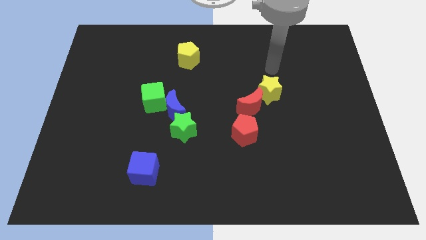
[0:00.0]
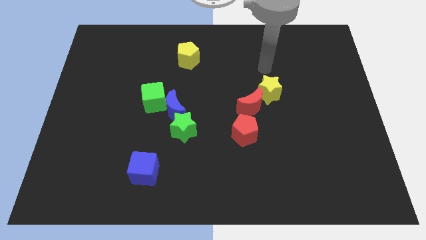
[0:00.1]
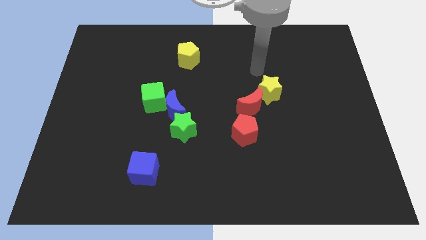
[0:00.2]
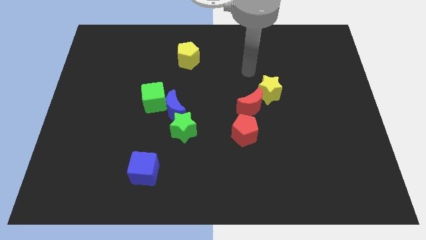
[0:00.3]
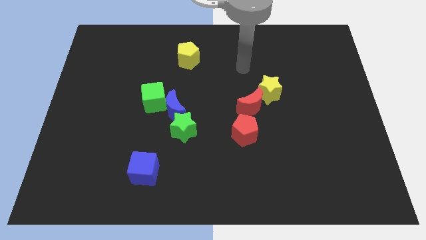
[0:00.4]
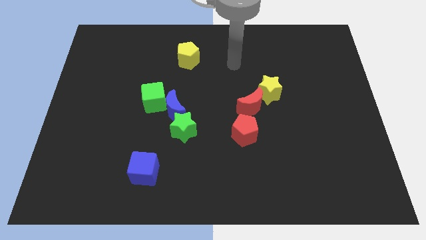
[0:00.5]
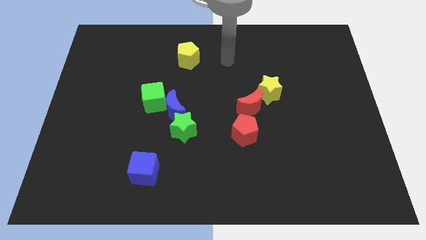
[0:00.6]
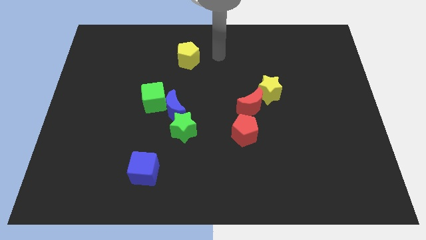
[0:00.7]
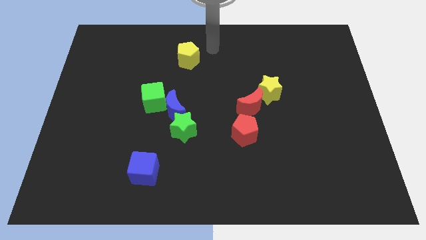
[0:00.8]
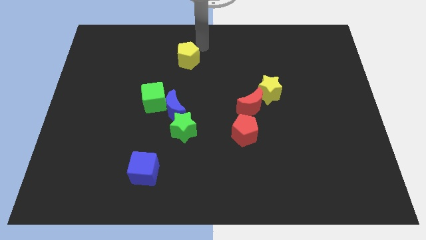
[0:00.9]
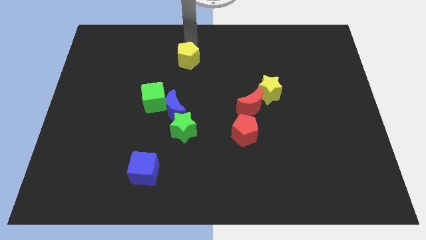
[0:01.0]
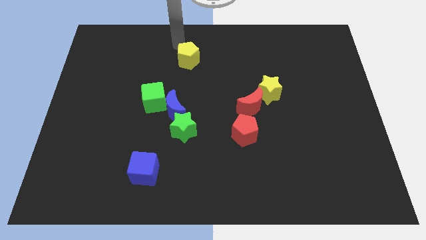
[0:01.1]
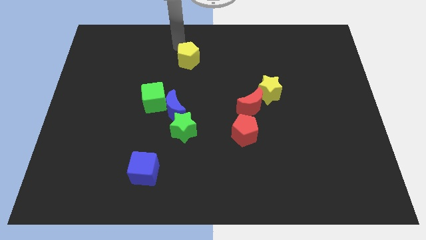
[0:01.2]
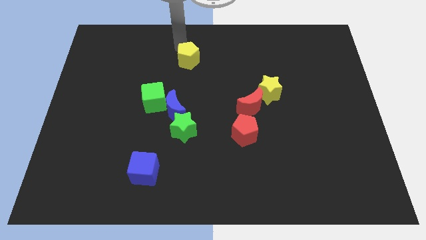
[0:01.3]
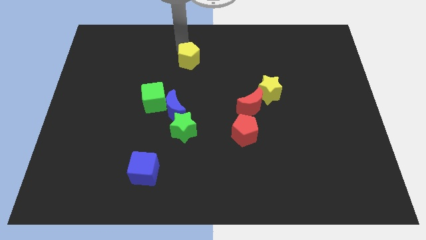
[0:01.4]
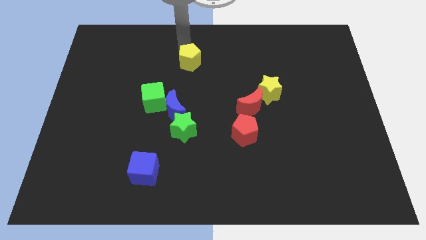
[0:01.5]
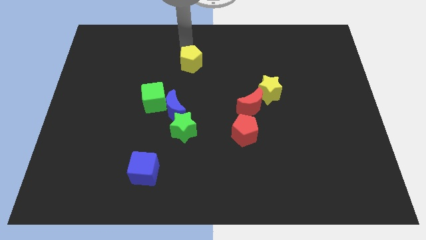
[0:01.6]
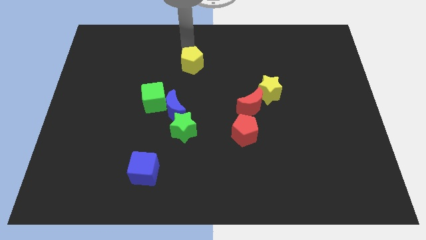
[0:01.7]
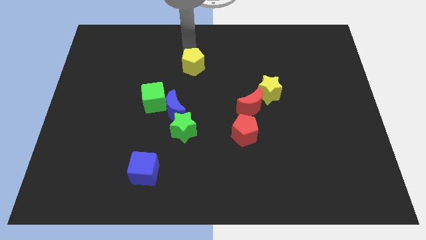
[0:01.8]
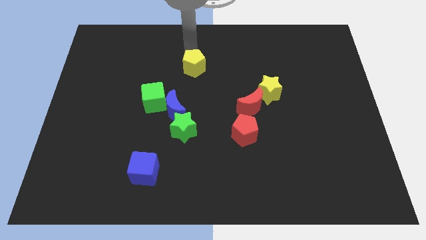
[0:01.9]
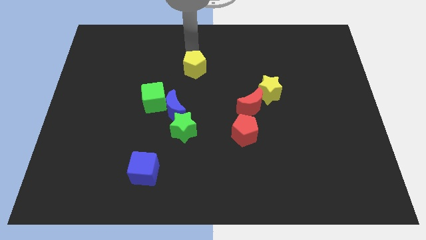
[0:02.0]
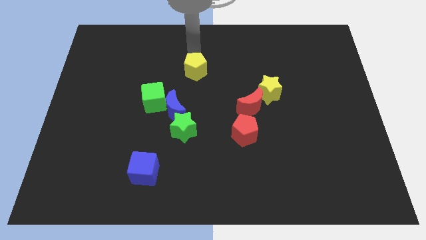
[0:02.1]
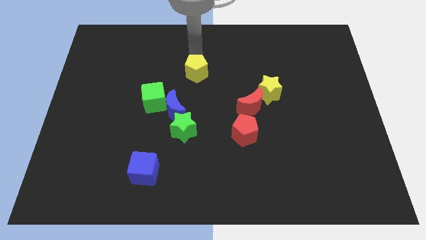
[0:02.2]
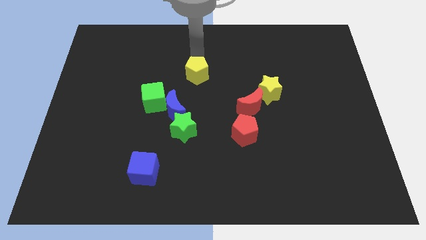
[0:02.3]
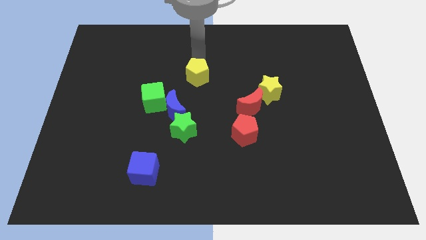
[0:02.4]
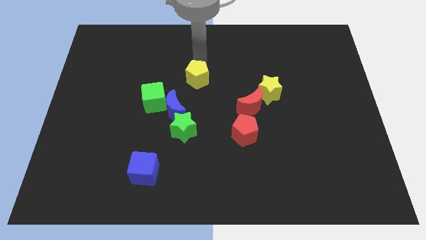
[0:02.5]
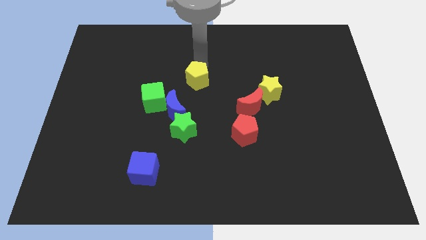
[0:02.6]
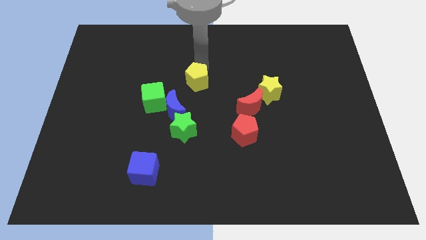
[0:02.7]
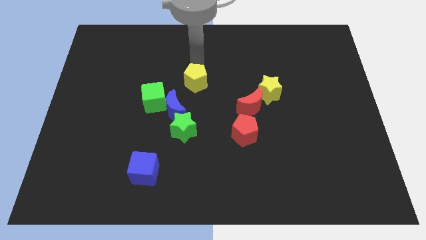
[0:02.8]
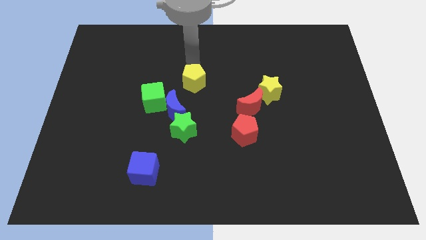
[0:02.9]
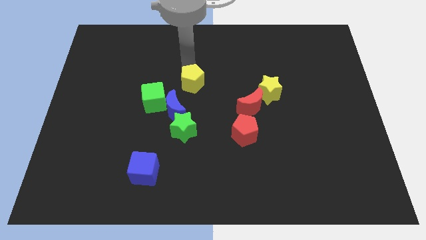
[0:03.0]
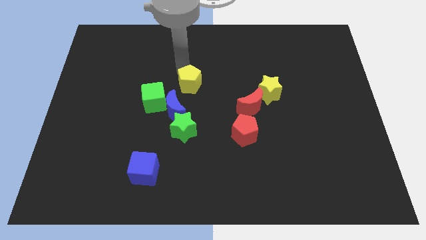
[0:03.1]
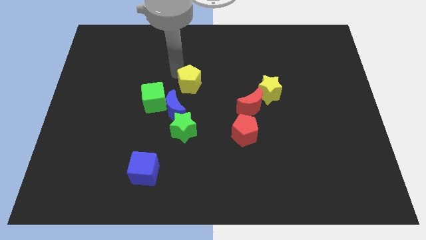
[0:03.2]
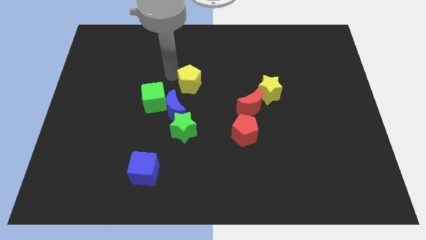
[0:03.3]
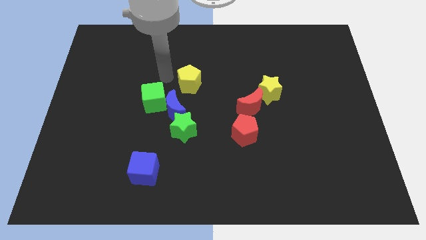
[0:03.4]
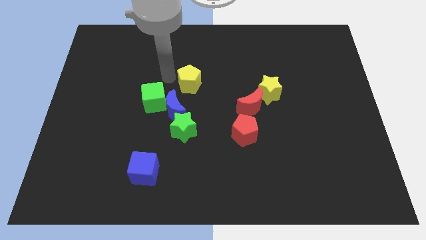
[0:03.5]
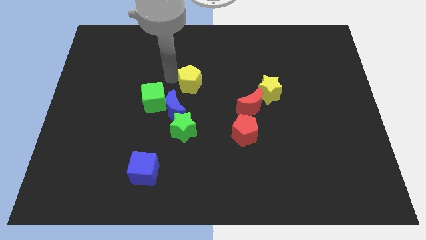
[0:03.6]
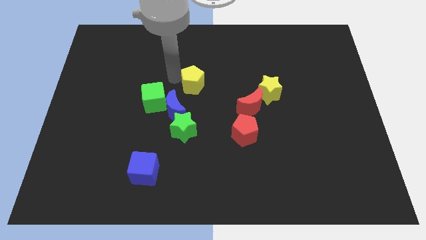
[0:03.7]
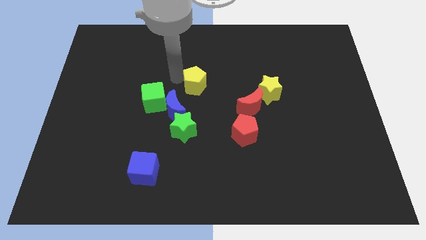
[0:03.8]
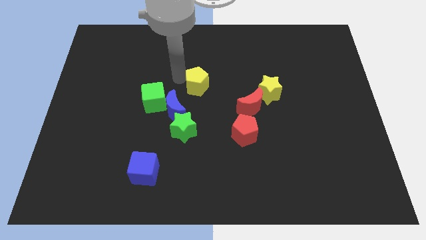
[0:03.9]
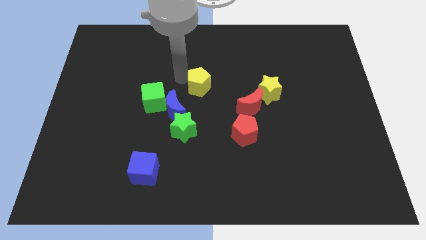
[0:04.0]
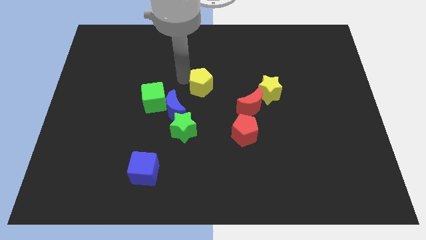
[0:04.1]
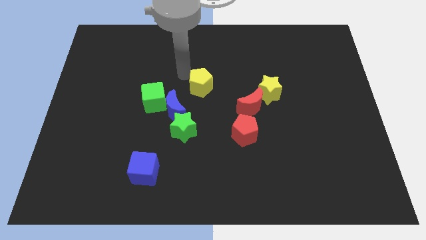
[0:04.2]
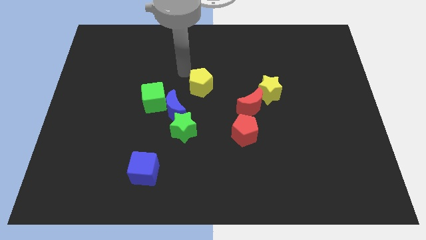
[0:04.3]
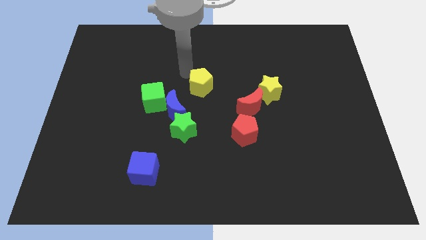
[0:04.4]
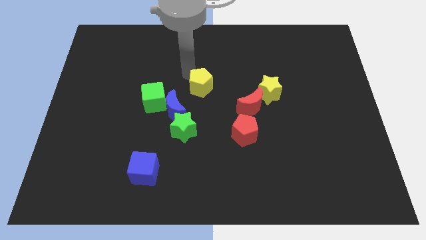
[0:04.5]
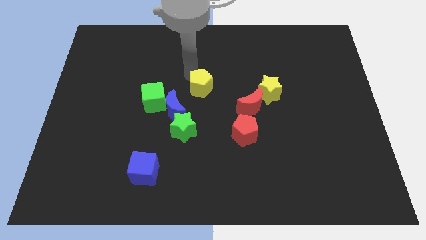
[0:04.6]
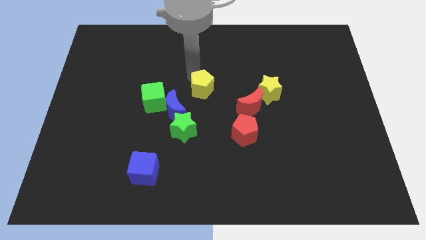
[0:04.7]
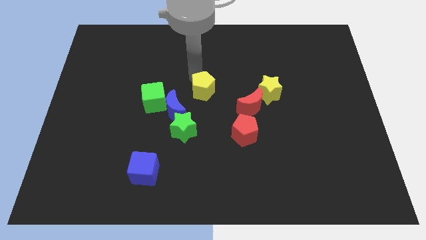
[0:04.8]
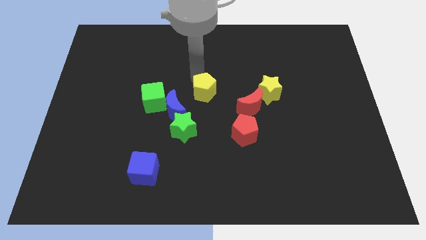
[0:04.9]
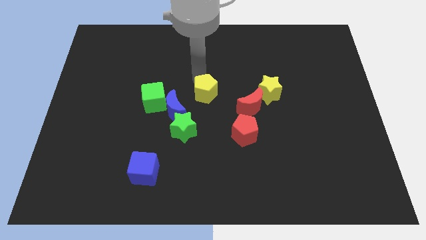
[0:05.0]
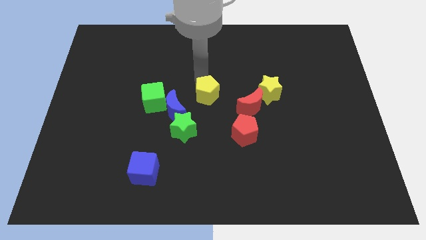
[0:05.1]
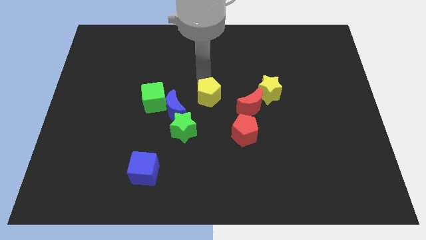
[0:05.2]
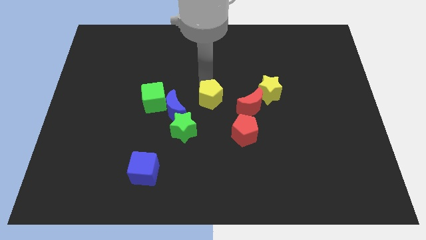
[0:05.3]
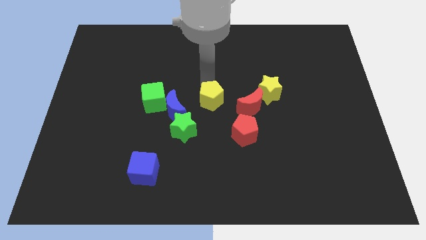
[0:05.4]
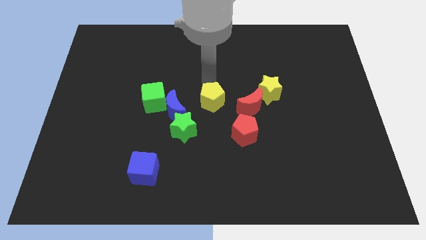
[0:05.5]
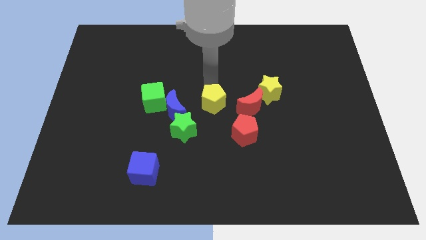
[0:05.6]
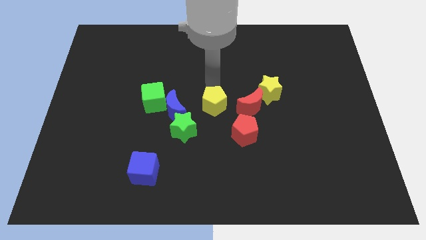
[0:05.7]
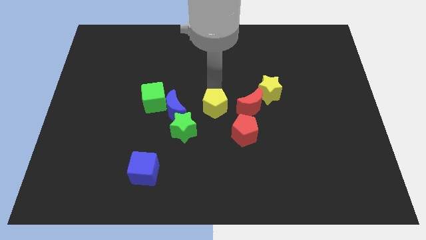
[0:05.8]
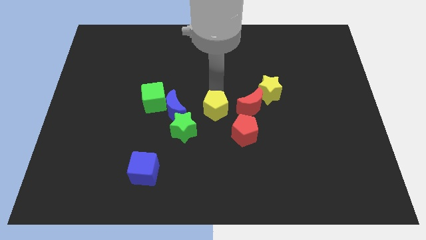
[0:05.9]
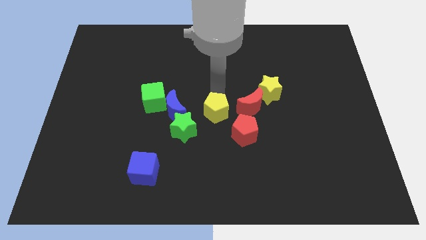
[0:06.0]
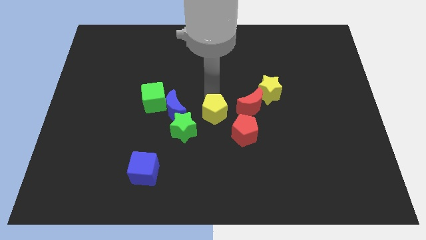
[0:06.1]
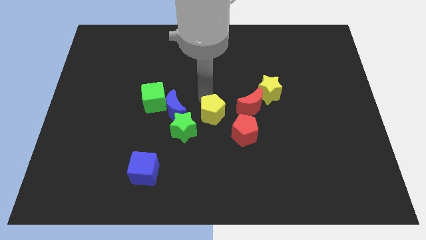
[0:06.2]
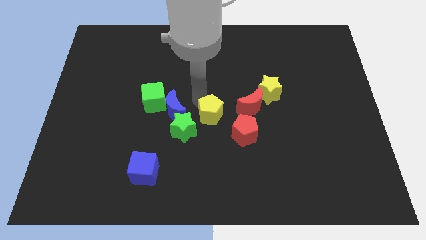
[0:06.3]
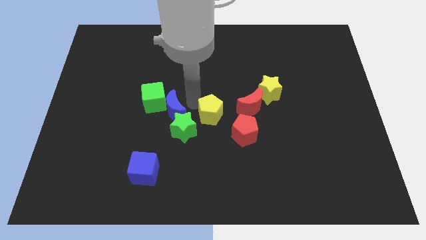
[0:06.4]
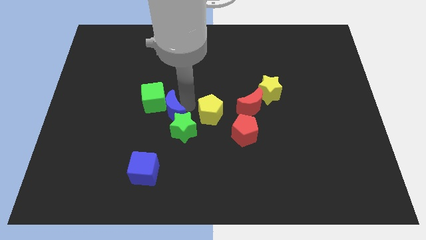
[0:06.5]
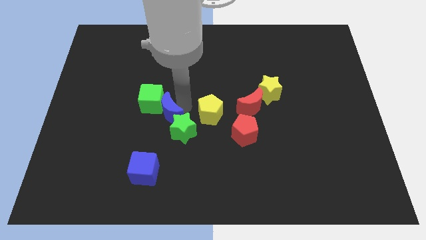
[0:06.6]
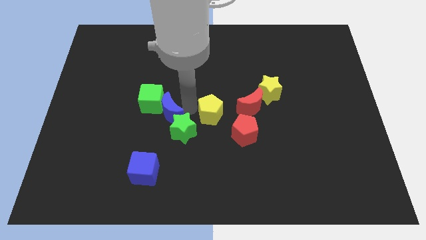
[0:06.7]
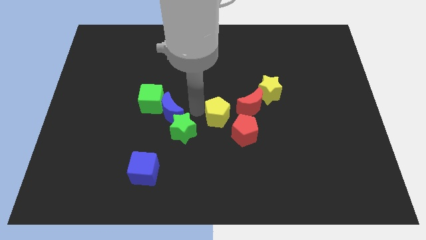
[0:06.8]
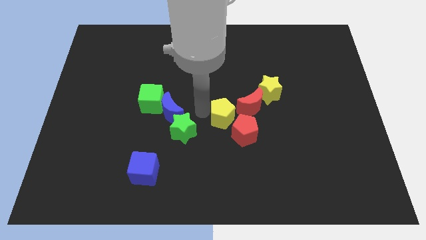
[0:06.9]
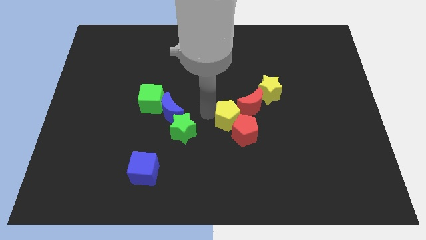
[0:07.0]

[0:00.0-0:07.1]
move the yellow pentagon next to the red pentagon
